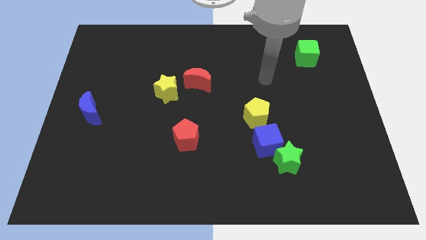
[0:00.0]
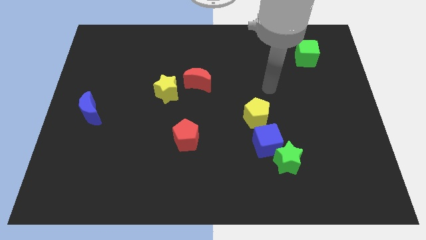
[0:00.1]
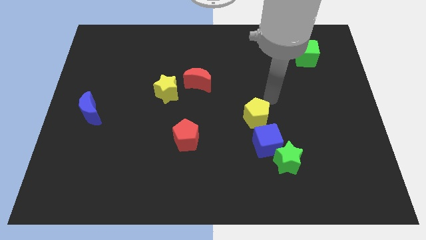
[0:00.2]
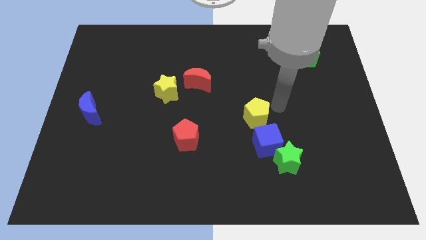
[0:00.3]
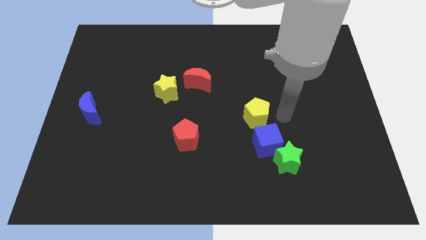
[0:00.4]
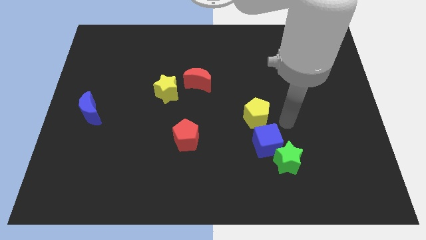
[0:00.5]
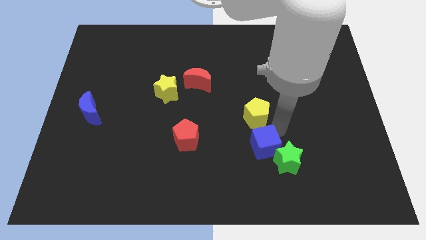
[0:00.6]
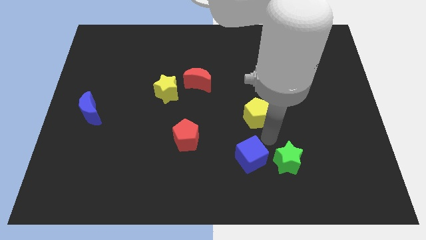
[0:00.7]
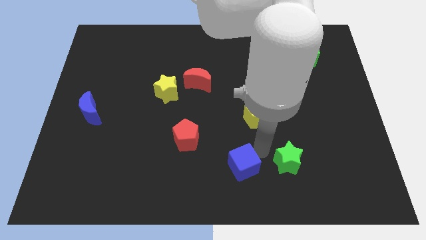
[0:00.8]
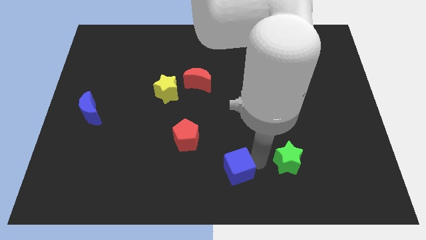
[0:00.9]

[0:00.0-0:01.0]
pull the green star apart from the blue cube

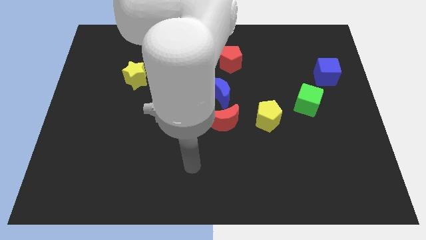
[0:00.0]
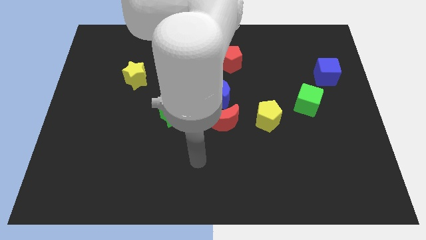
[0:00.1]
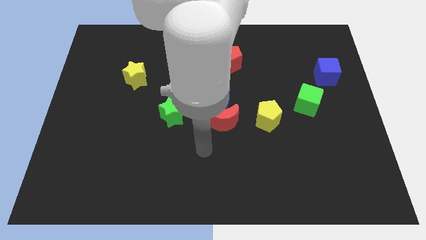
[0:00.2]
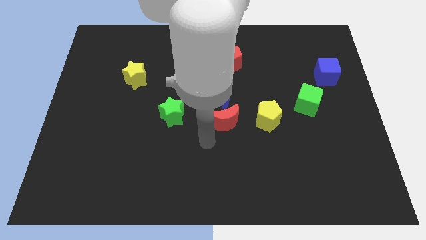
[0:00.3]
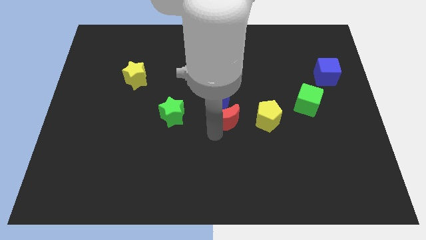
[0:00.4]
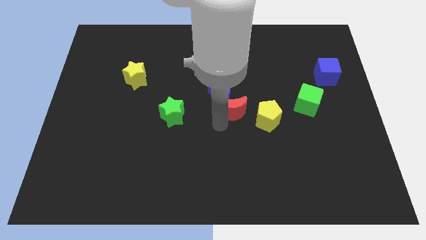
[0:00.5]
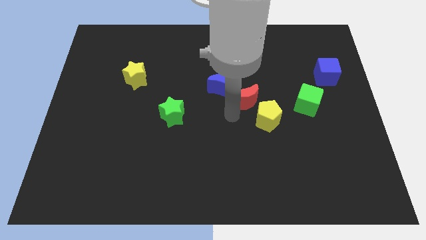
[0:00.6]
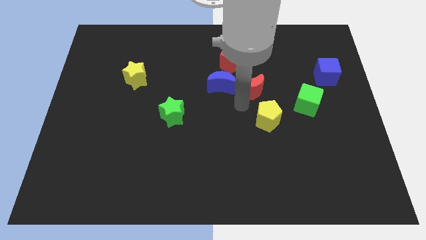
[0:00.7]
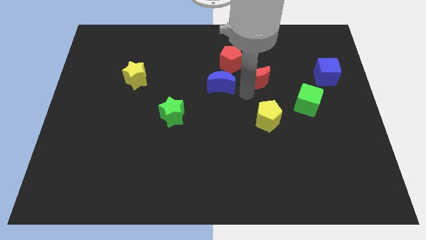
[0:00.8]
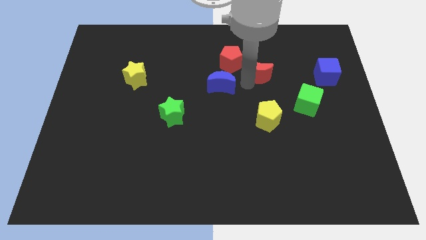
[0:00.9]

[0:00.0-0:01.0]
separate the blue moon from the red moon

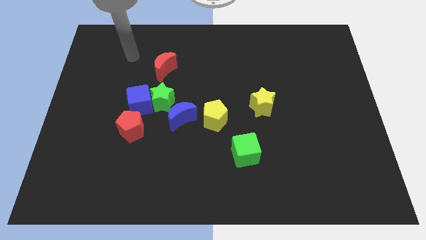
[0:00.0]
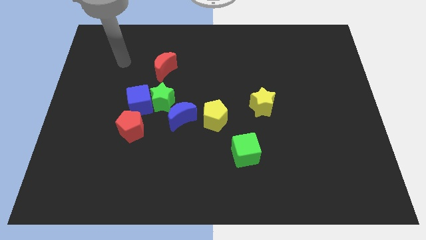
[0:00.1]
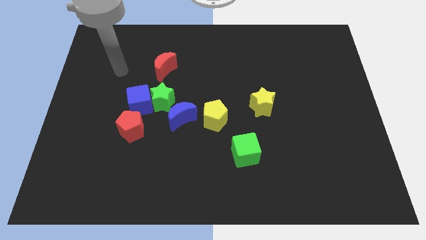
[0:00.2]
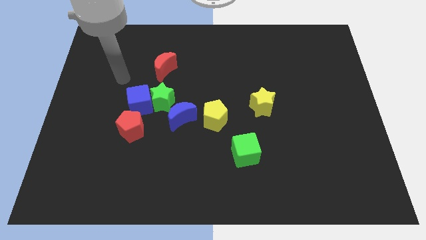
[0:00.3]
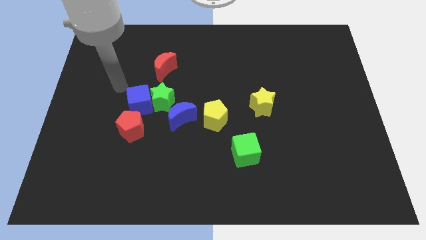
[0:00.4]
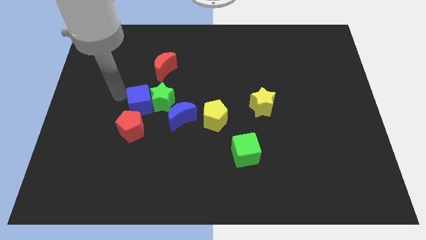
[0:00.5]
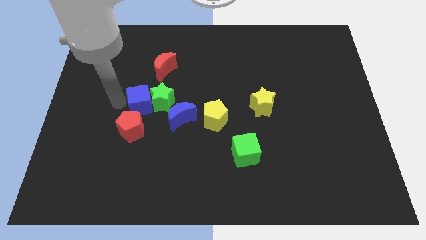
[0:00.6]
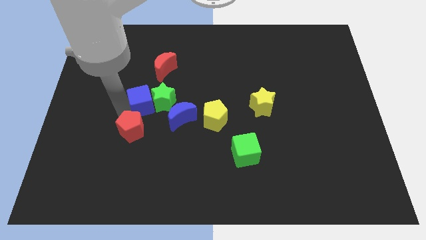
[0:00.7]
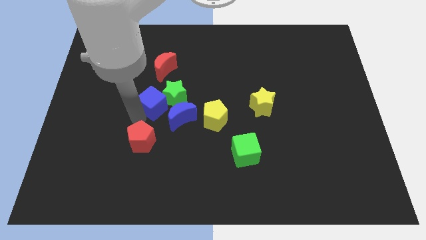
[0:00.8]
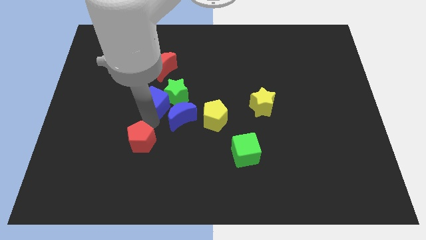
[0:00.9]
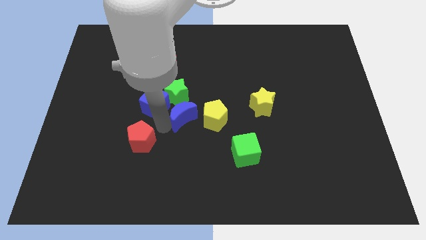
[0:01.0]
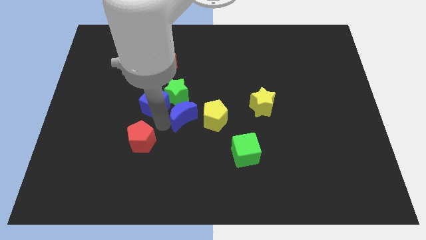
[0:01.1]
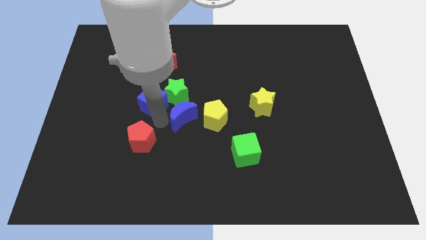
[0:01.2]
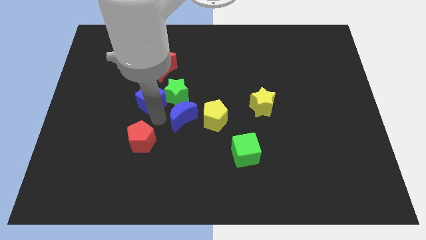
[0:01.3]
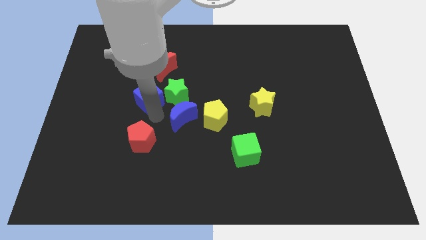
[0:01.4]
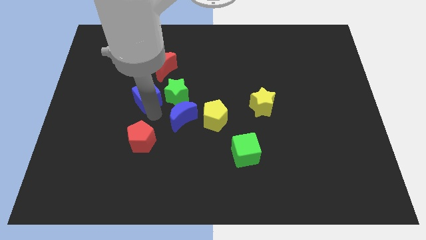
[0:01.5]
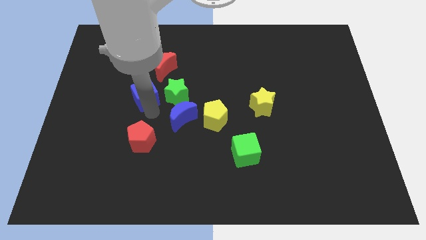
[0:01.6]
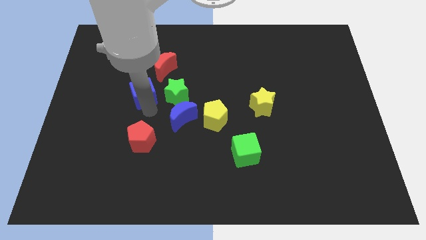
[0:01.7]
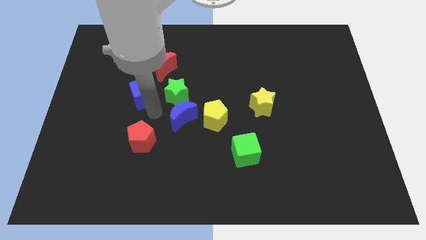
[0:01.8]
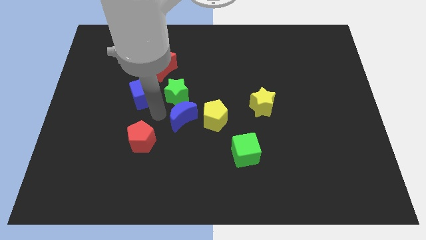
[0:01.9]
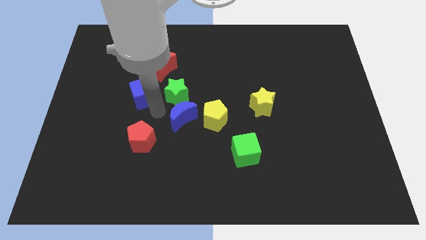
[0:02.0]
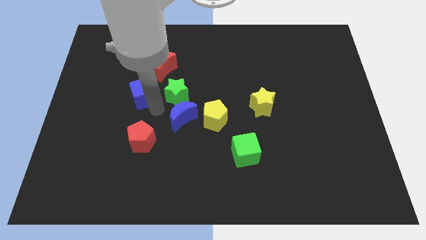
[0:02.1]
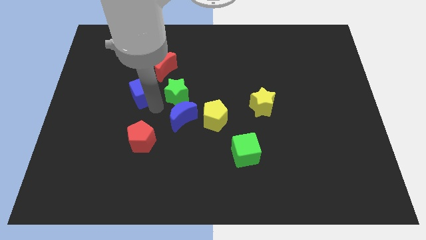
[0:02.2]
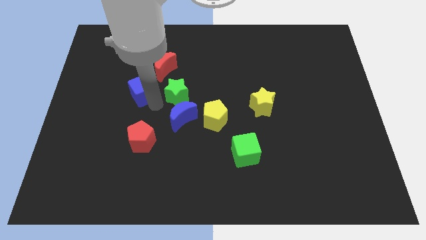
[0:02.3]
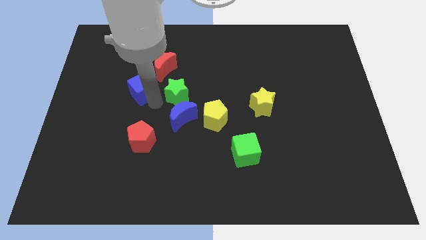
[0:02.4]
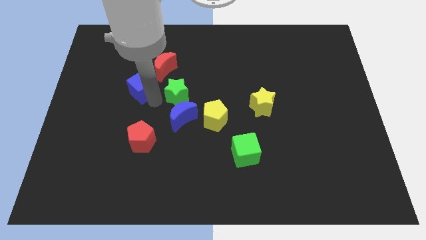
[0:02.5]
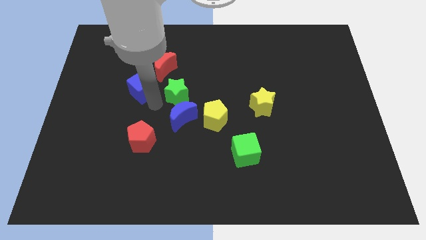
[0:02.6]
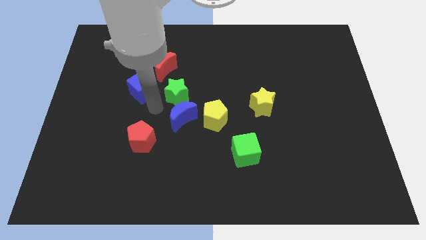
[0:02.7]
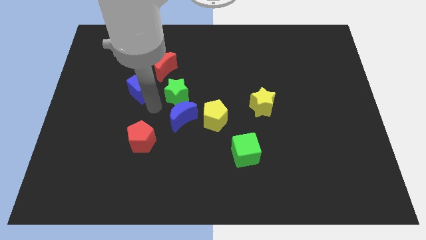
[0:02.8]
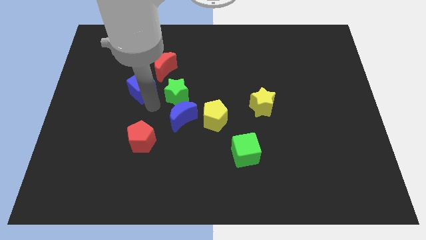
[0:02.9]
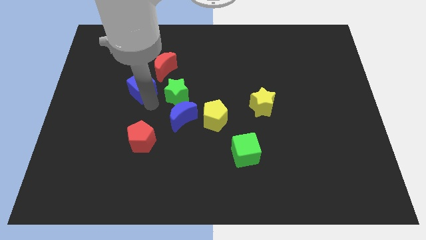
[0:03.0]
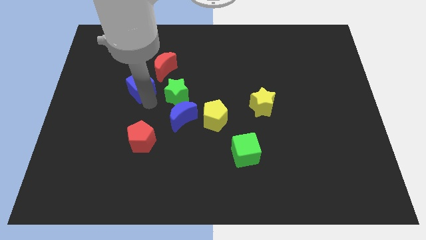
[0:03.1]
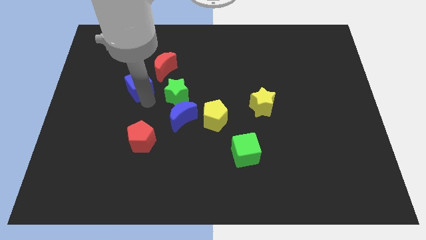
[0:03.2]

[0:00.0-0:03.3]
pull the blue cube apart from the green star and red pentagon

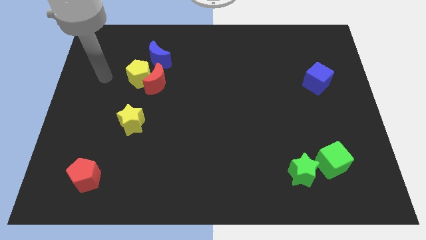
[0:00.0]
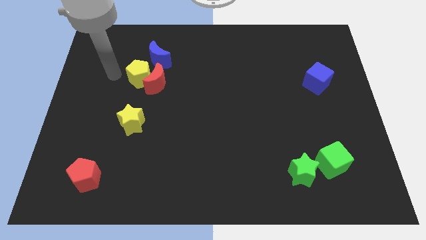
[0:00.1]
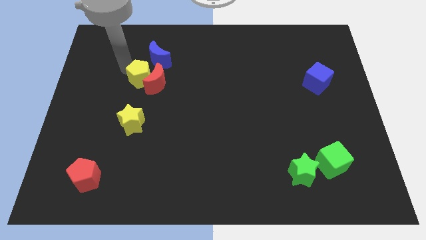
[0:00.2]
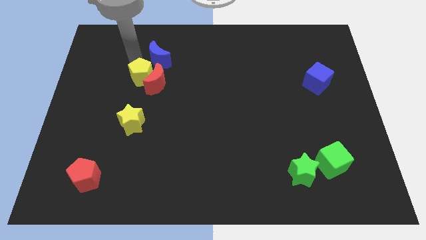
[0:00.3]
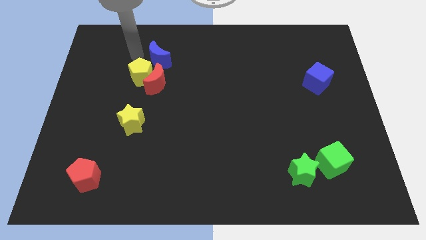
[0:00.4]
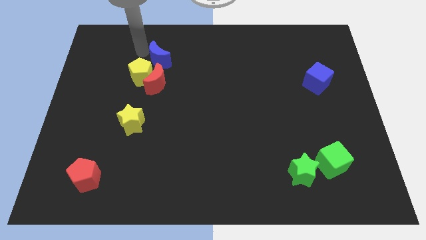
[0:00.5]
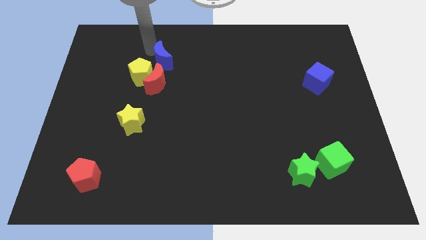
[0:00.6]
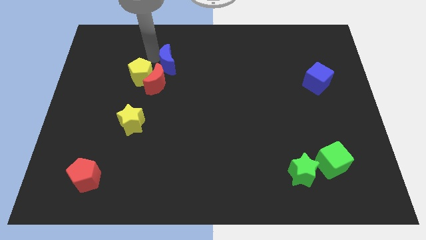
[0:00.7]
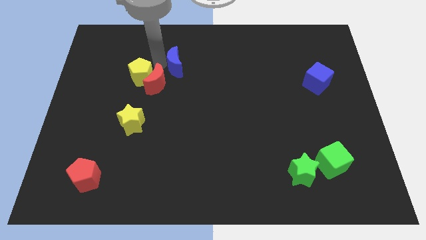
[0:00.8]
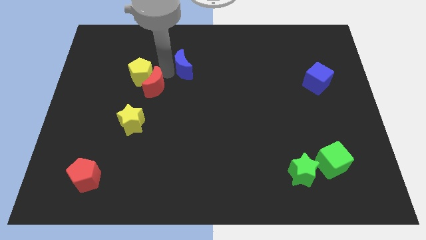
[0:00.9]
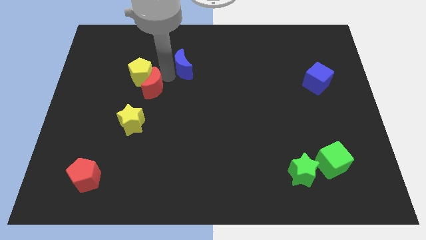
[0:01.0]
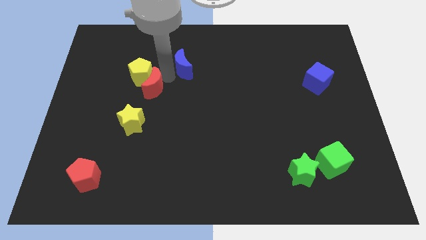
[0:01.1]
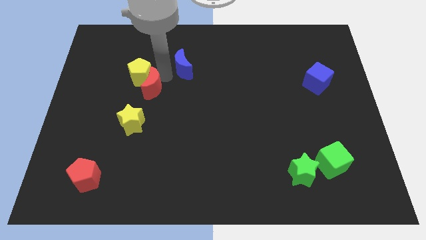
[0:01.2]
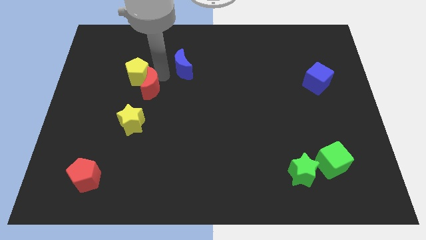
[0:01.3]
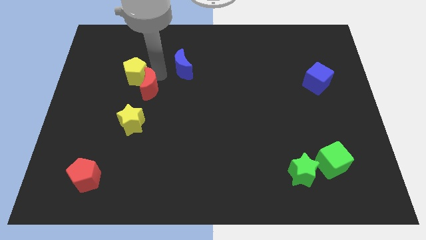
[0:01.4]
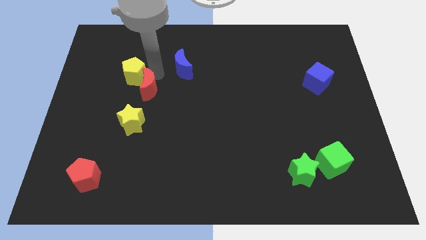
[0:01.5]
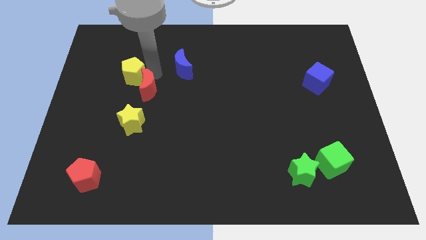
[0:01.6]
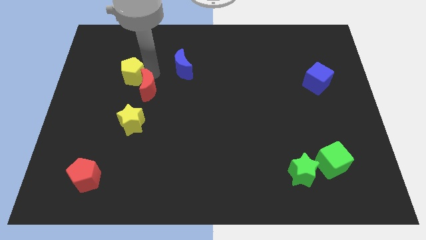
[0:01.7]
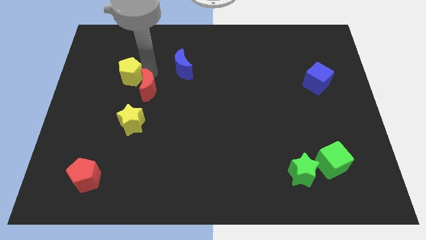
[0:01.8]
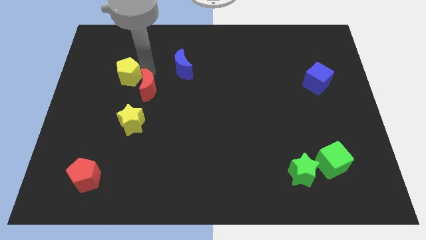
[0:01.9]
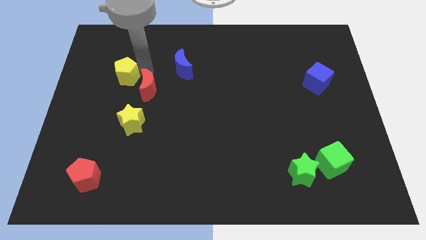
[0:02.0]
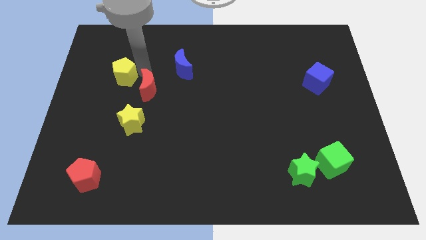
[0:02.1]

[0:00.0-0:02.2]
move the yellow pentagon away from the red moon and blue moon

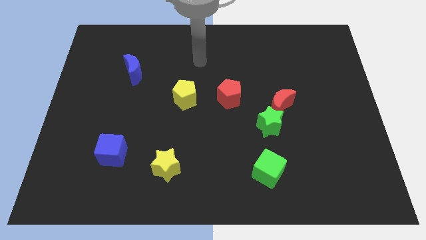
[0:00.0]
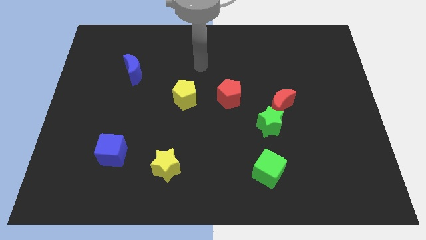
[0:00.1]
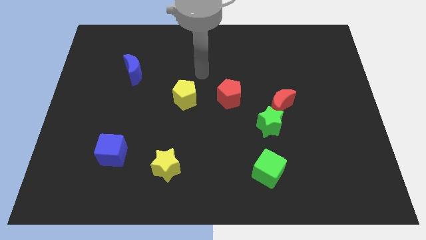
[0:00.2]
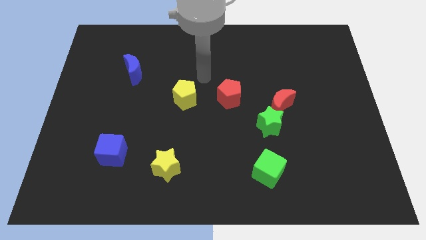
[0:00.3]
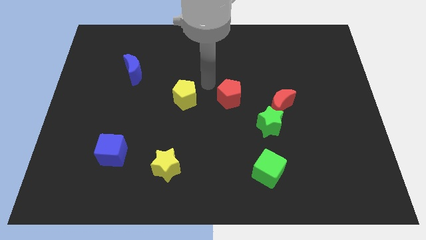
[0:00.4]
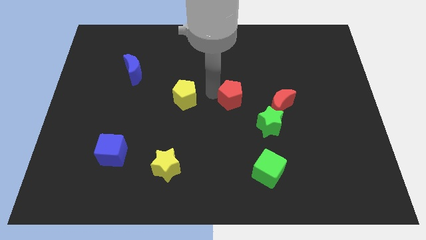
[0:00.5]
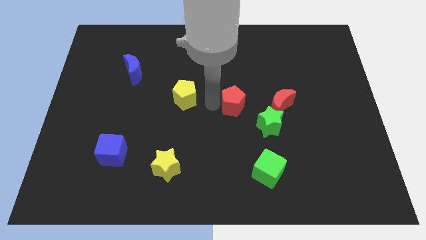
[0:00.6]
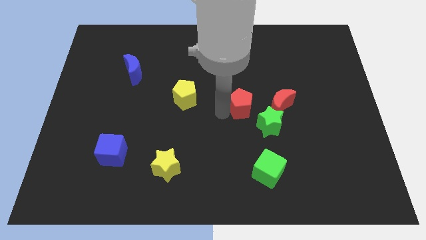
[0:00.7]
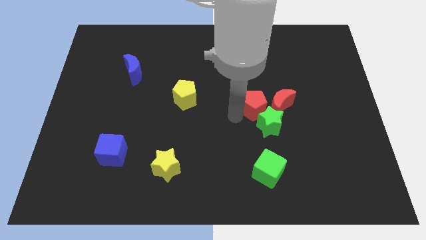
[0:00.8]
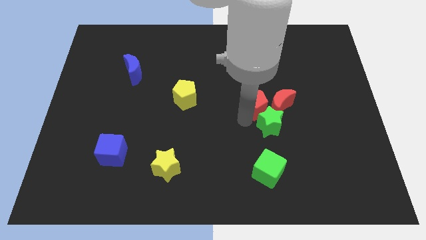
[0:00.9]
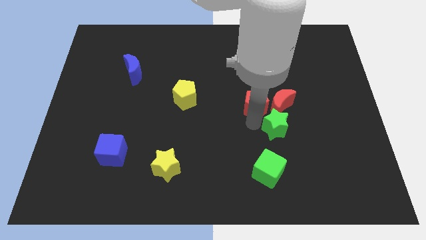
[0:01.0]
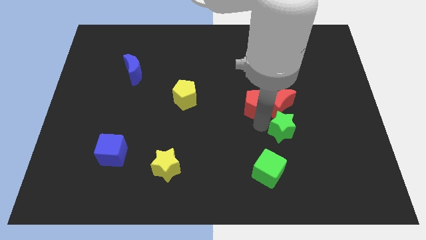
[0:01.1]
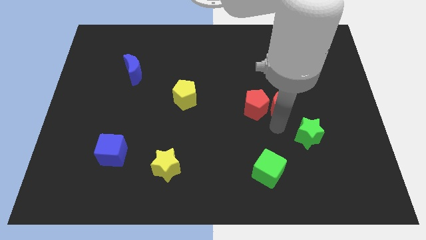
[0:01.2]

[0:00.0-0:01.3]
pull the red moon apart from the green star

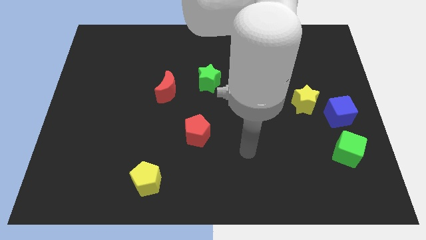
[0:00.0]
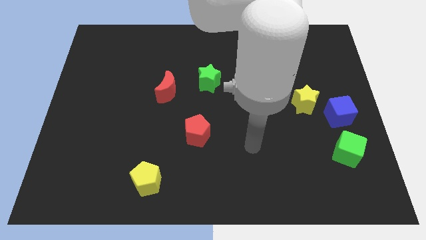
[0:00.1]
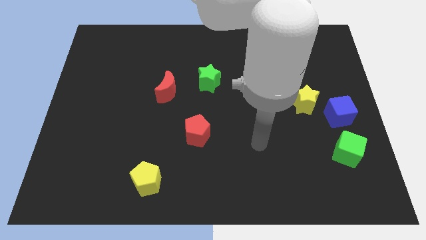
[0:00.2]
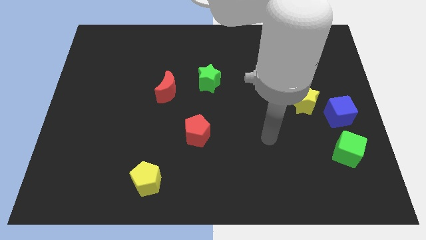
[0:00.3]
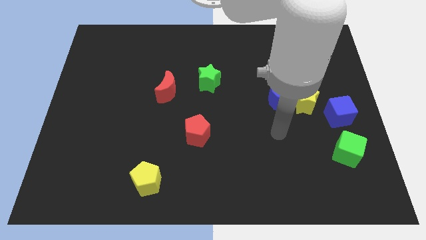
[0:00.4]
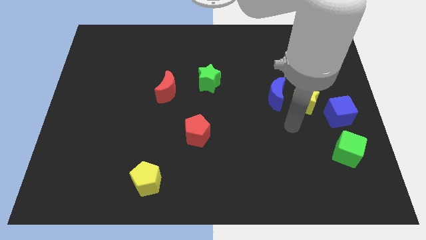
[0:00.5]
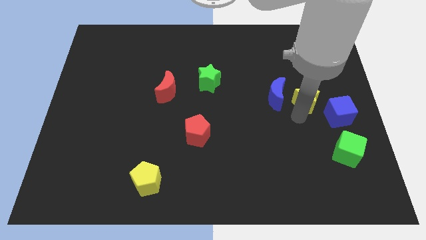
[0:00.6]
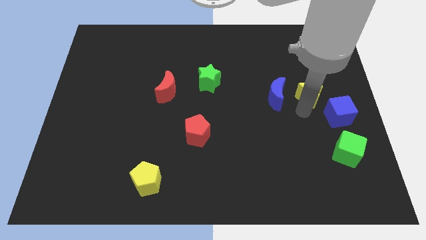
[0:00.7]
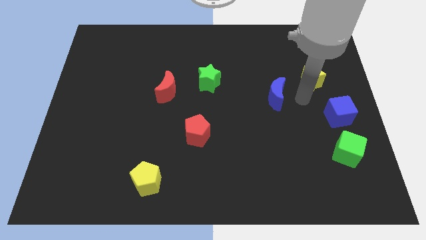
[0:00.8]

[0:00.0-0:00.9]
pull the blue moon apart from the yellow star
